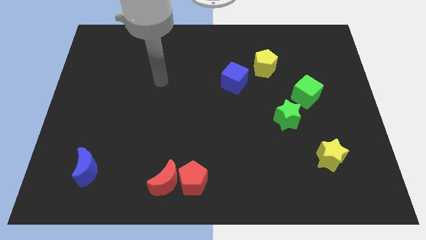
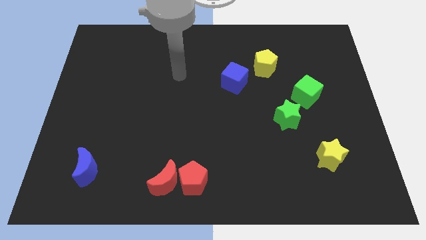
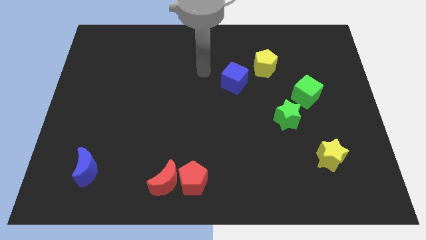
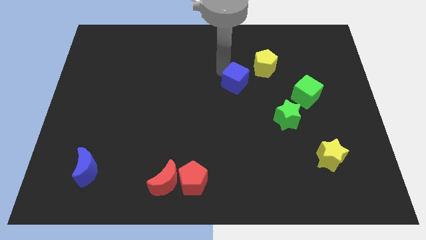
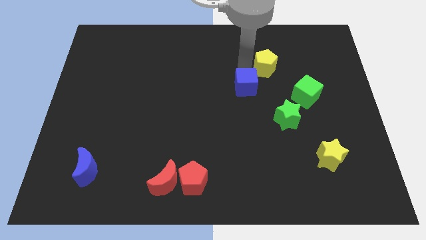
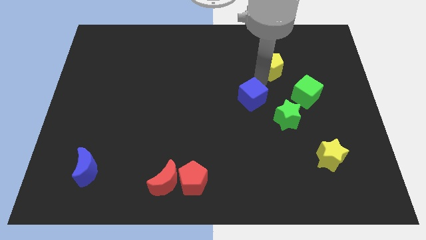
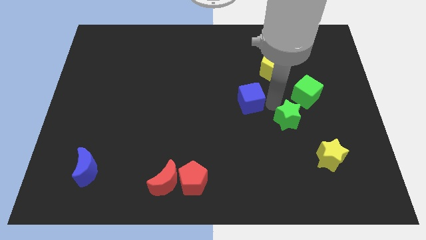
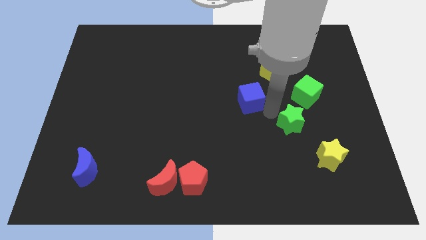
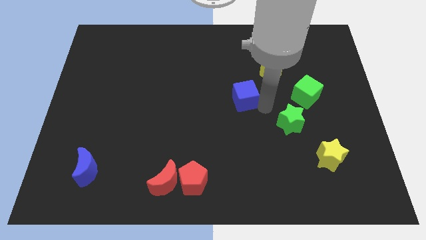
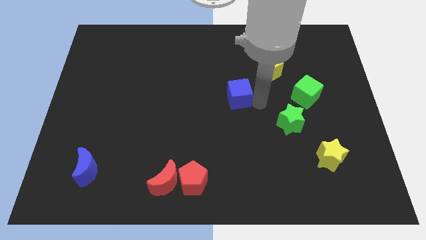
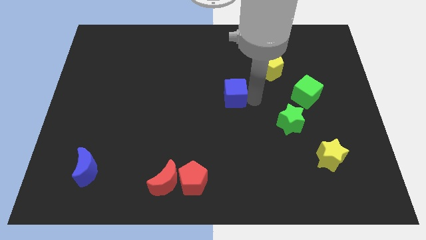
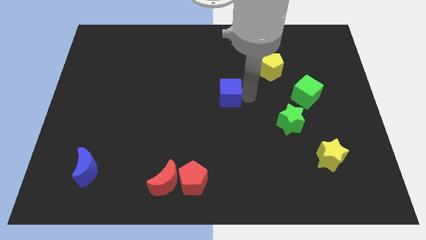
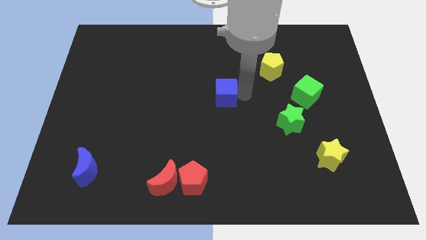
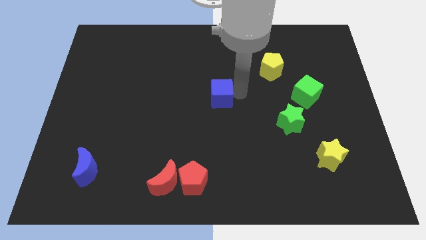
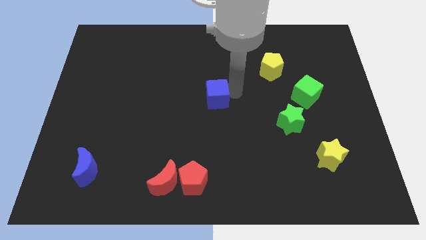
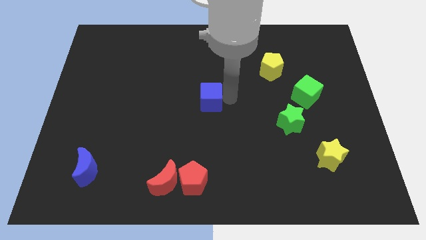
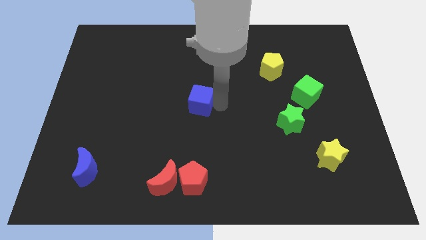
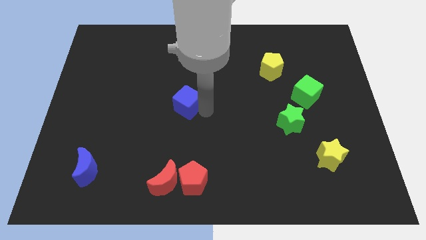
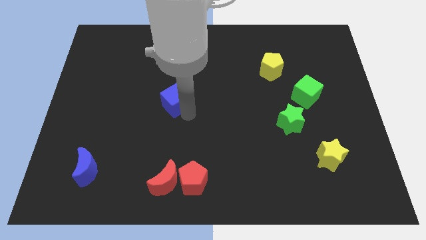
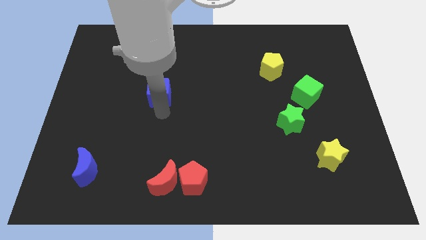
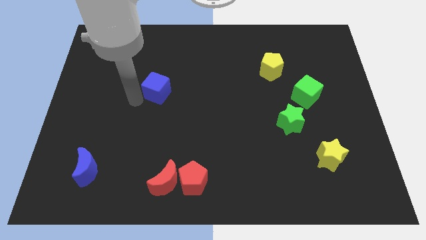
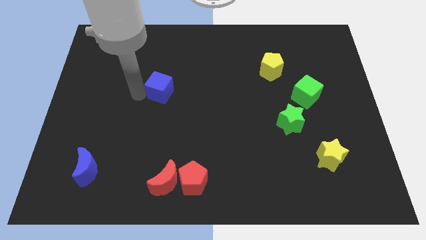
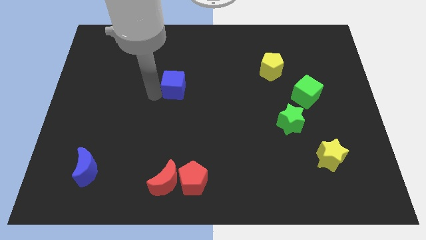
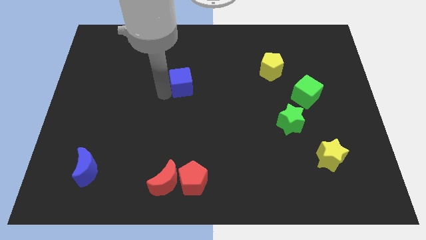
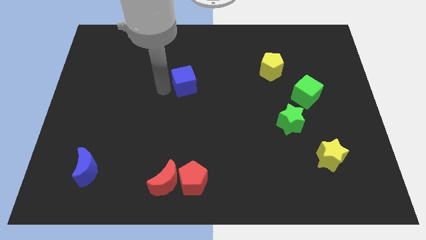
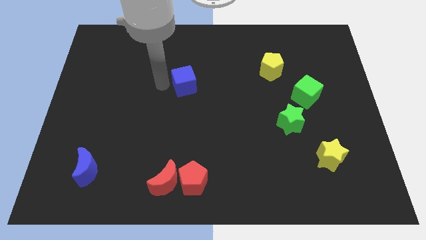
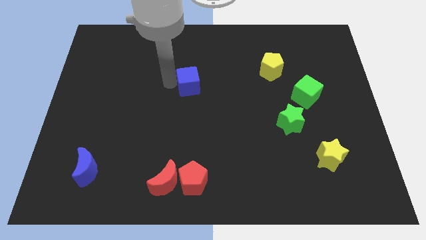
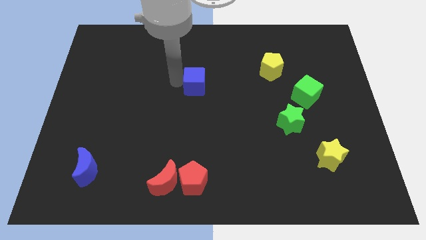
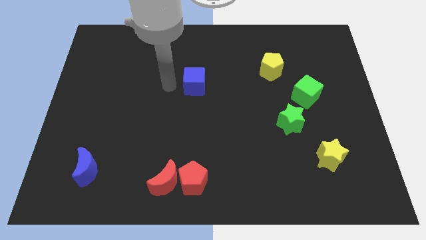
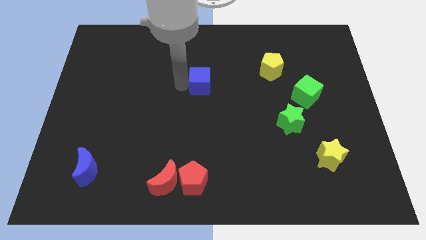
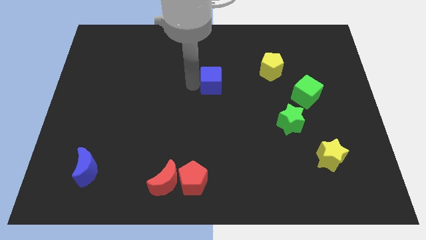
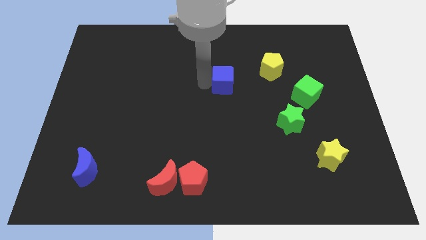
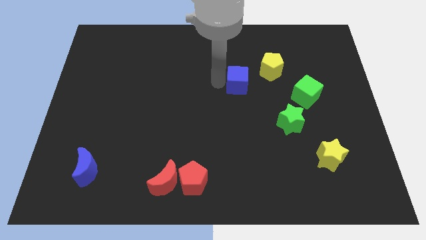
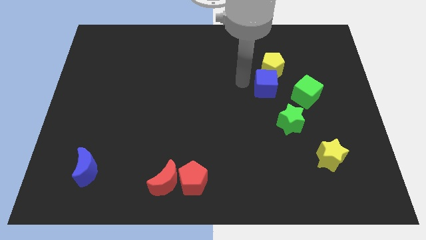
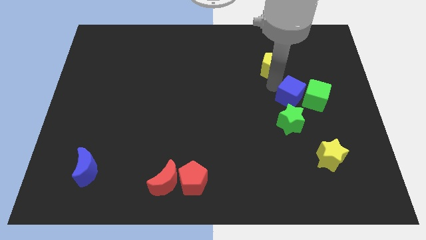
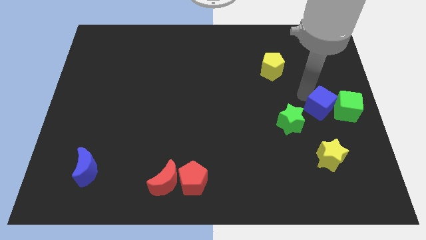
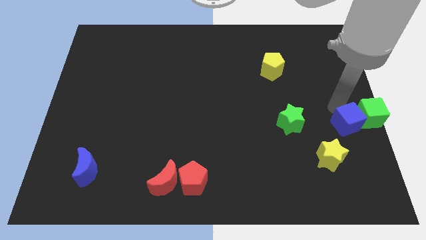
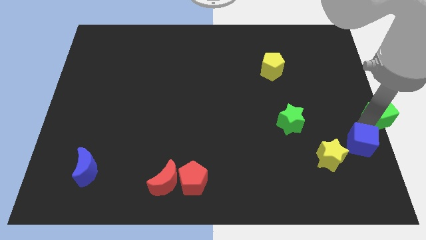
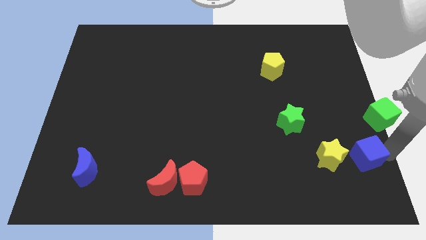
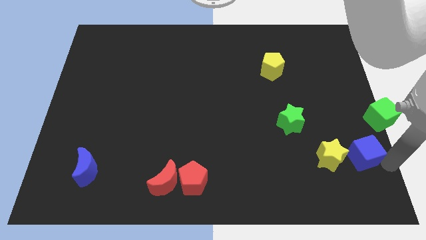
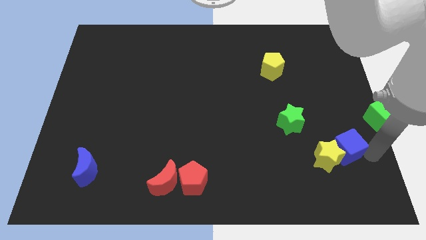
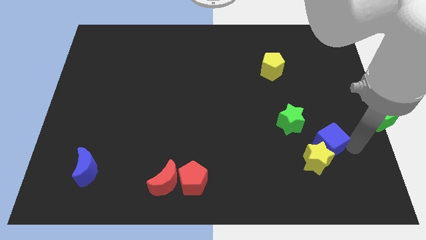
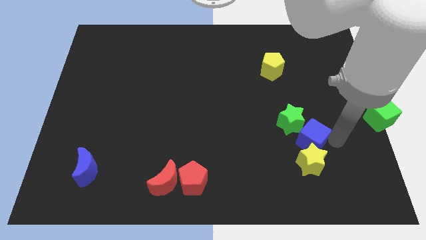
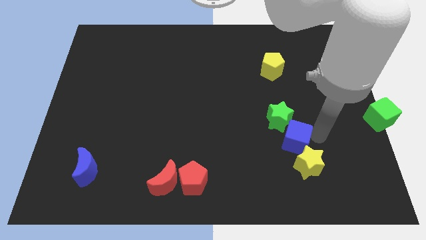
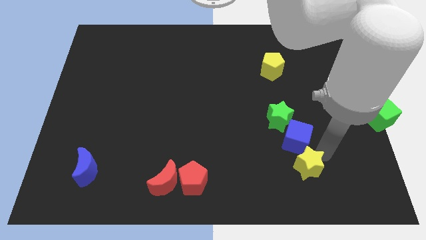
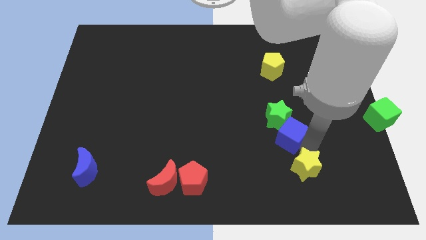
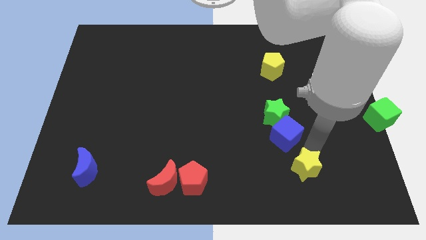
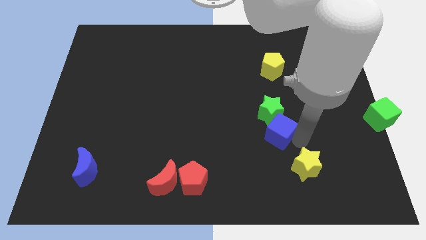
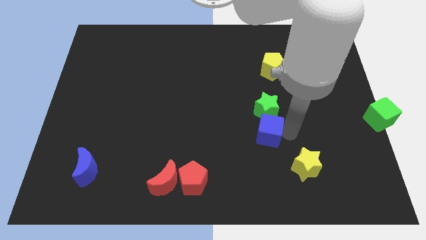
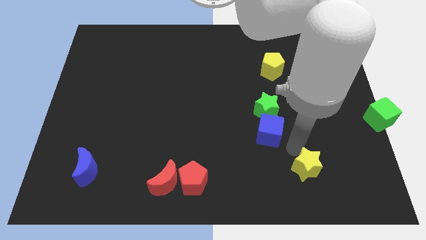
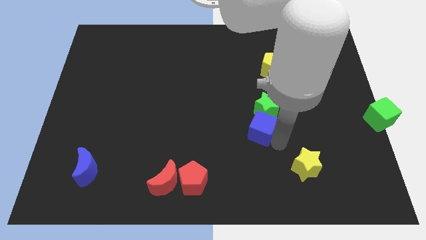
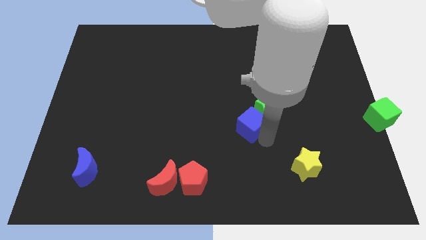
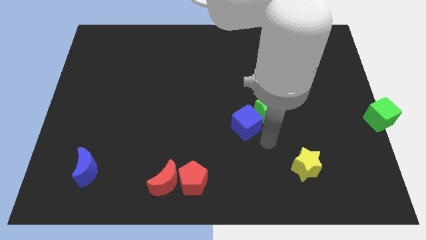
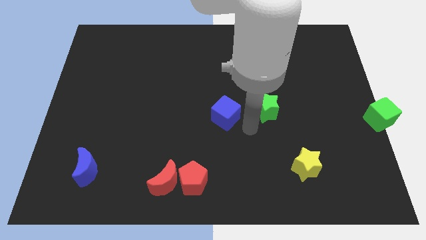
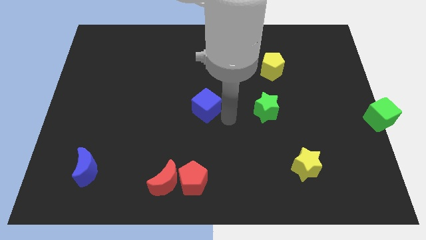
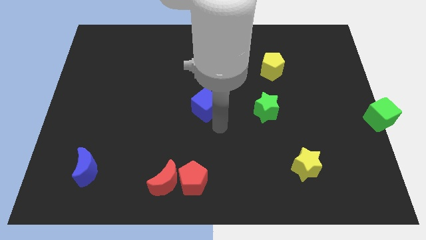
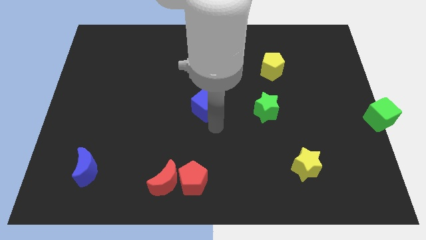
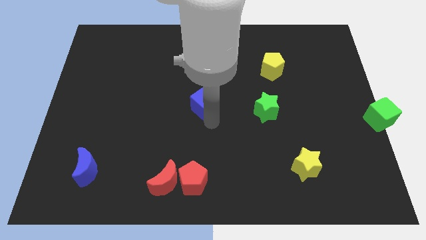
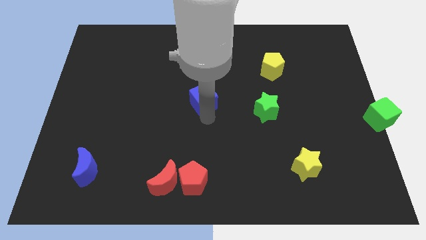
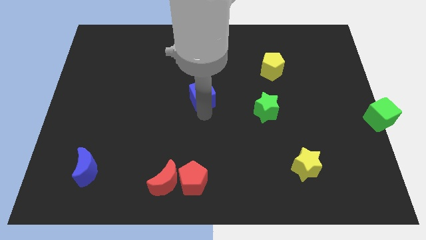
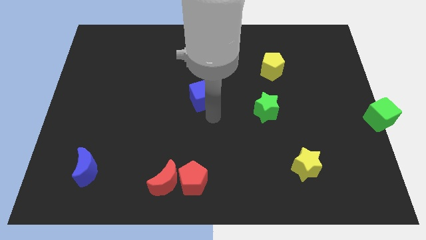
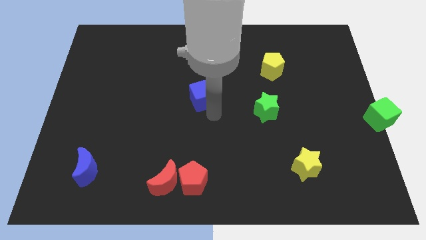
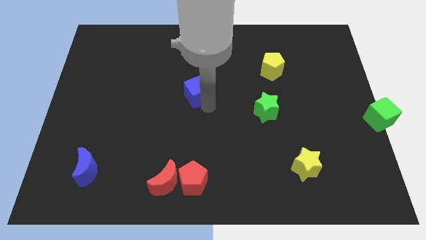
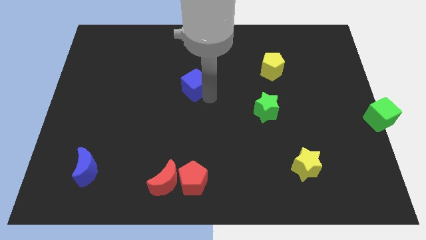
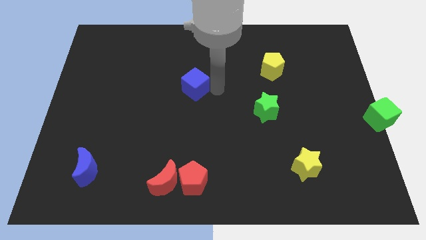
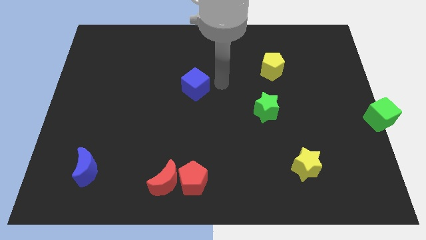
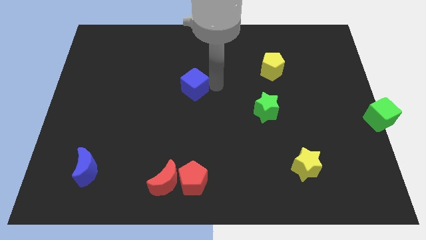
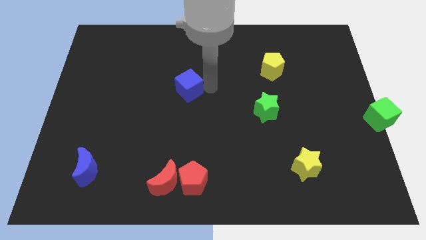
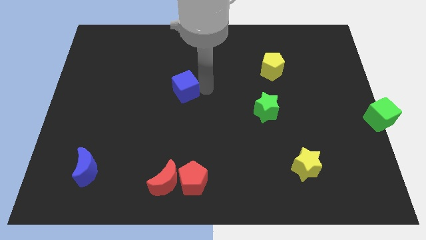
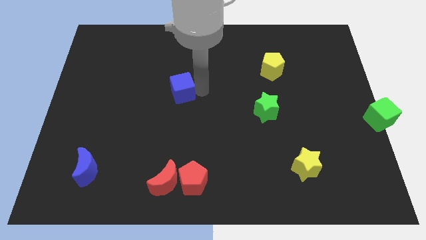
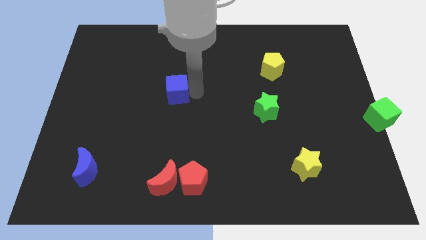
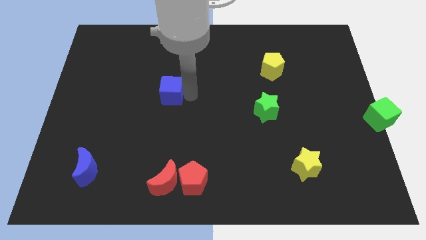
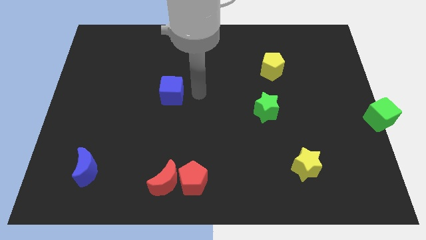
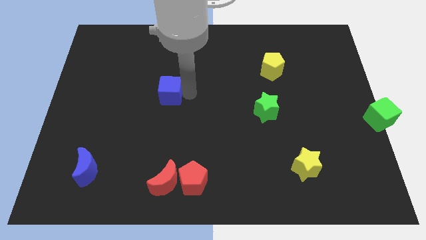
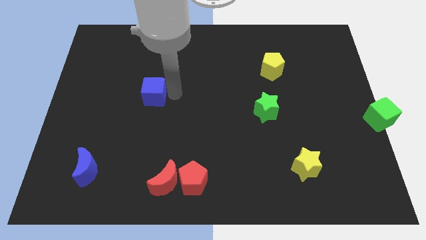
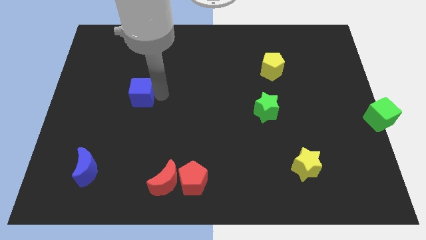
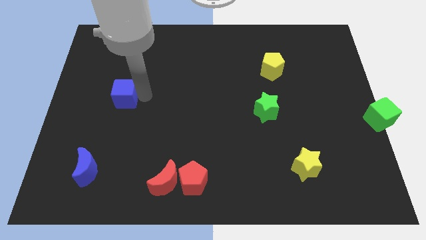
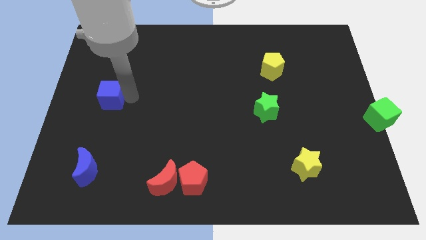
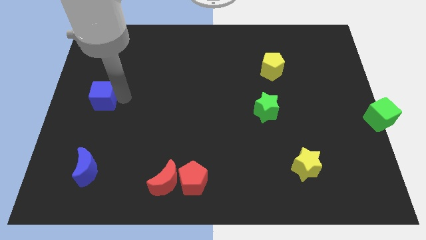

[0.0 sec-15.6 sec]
move the blue cube to the left side

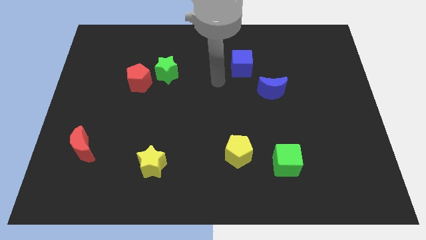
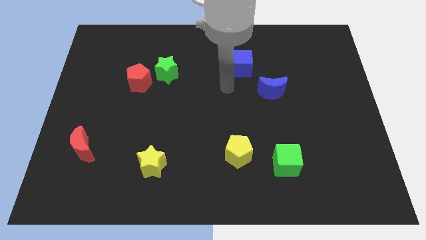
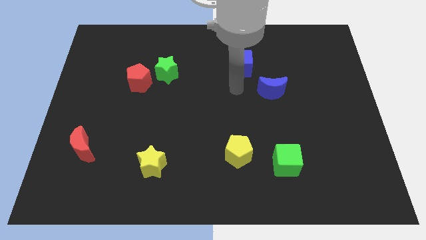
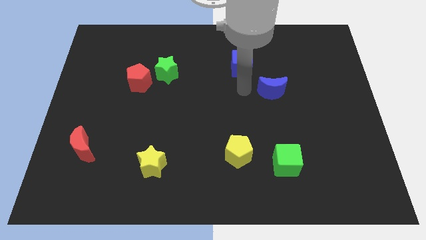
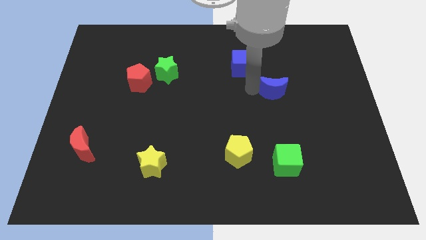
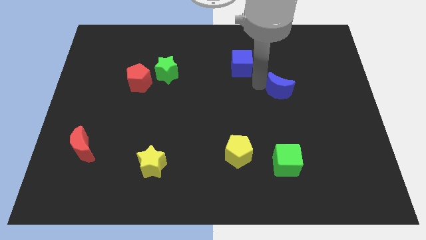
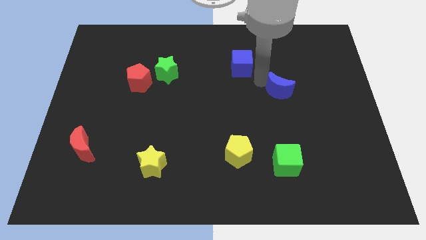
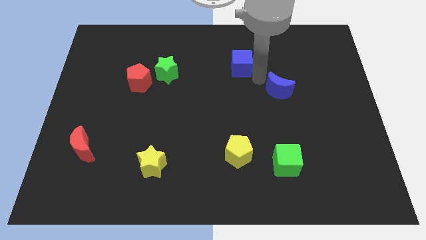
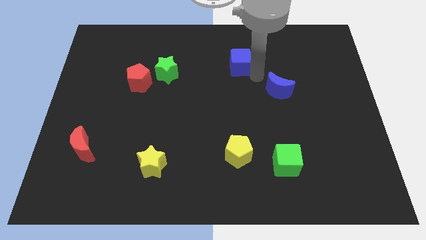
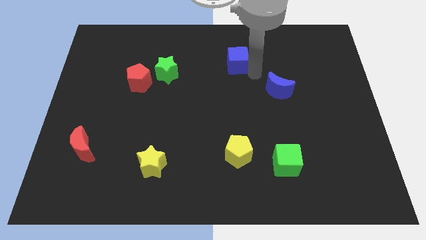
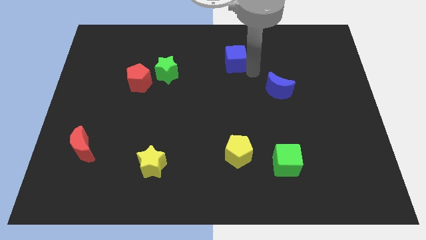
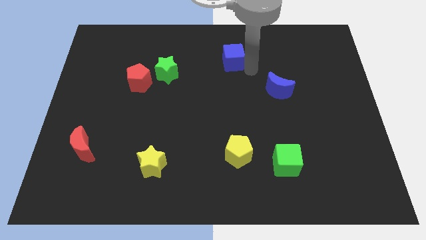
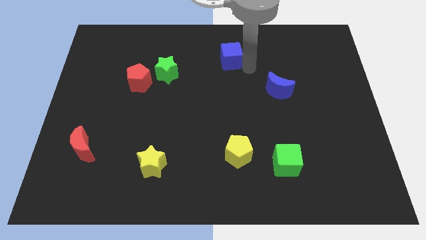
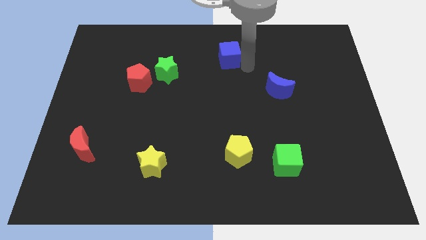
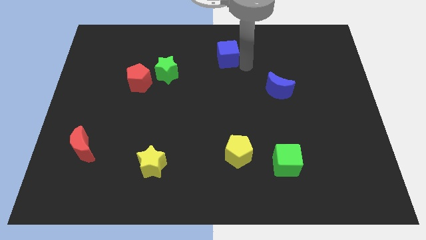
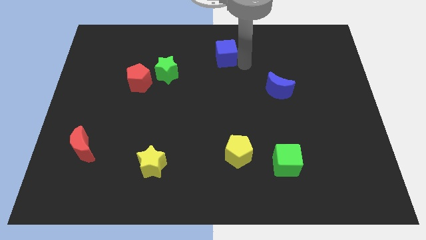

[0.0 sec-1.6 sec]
put the blue cube to the top
